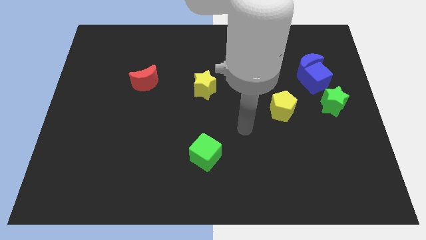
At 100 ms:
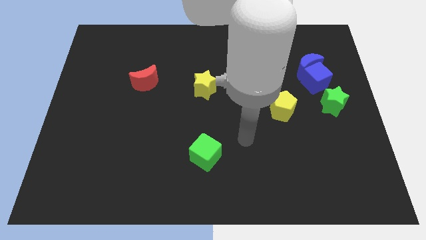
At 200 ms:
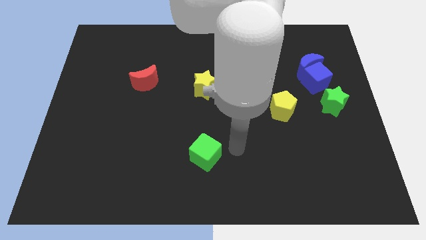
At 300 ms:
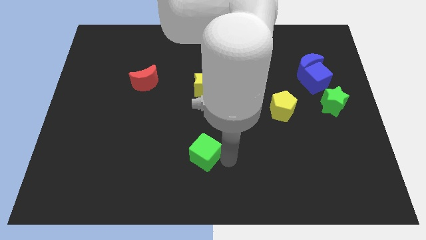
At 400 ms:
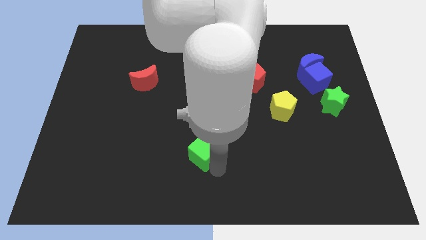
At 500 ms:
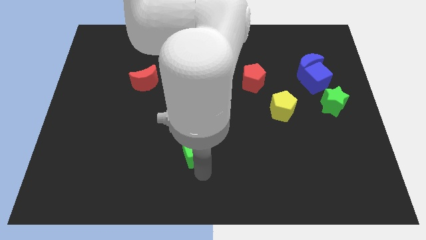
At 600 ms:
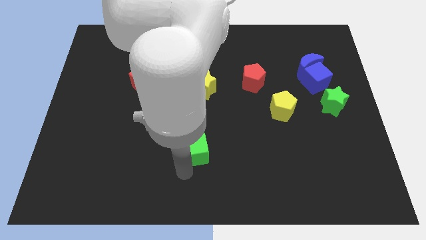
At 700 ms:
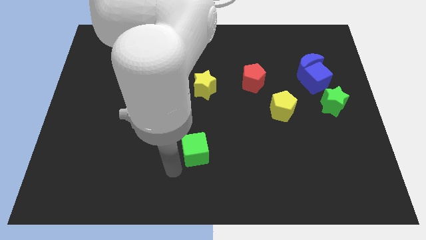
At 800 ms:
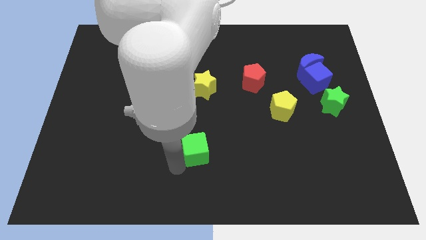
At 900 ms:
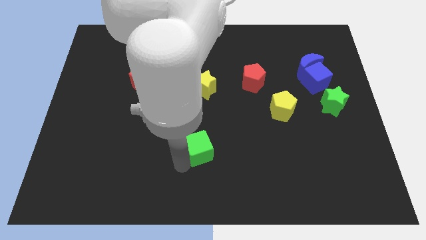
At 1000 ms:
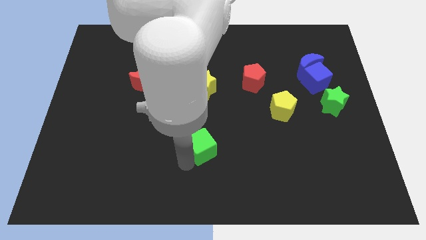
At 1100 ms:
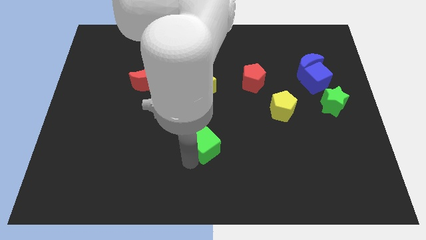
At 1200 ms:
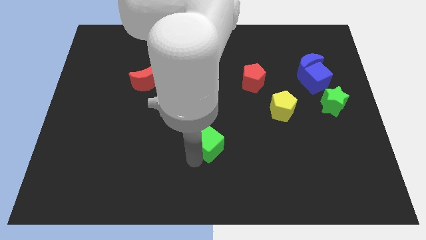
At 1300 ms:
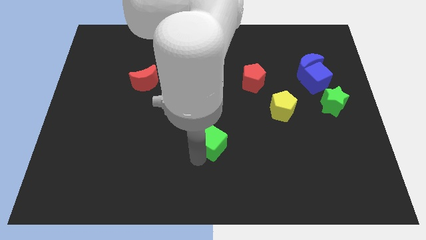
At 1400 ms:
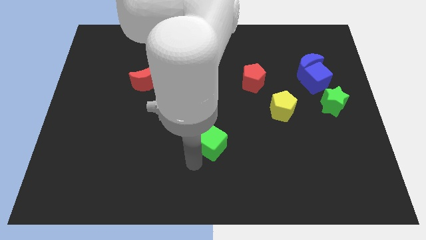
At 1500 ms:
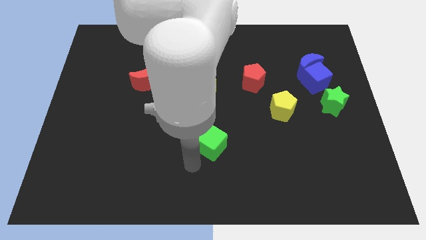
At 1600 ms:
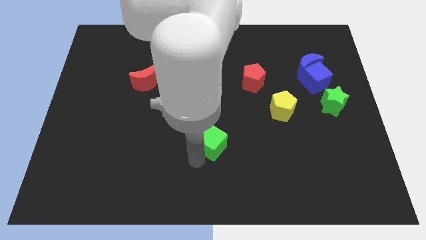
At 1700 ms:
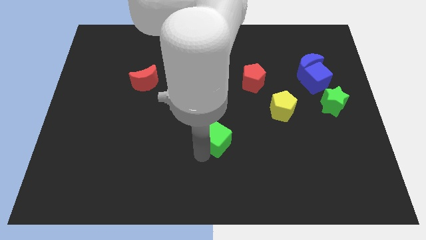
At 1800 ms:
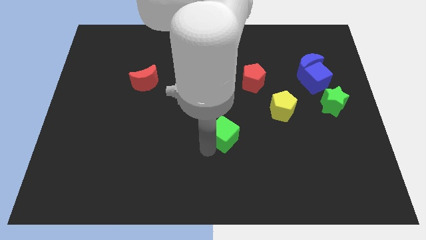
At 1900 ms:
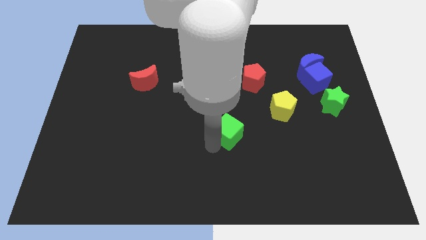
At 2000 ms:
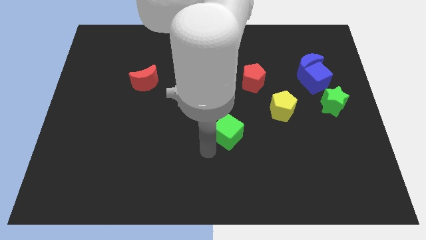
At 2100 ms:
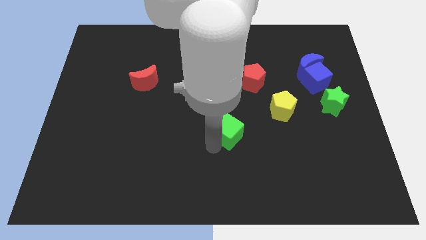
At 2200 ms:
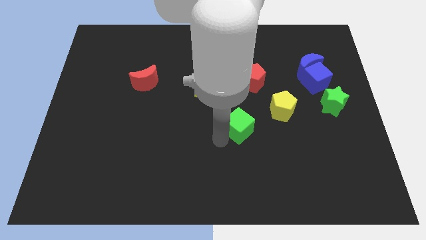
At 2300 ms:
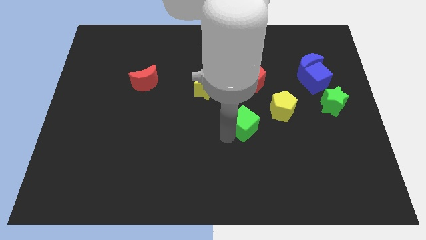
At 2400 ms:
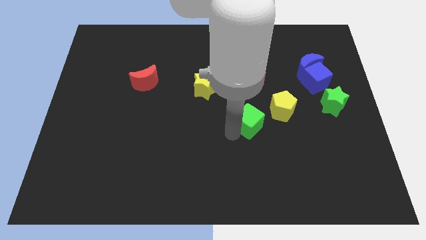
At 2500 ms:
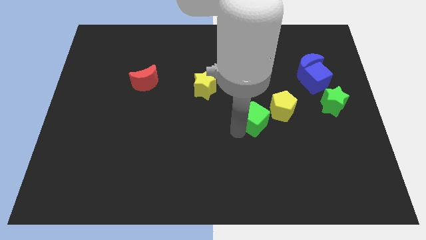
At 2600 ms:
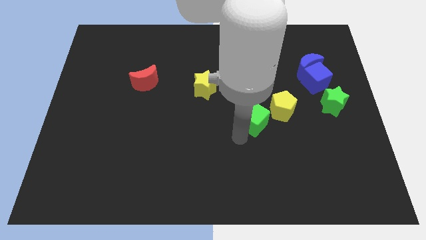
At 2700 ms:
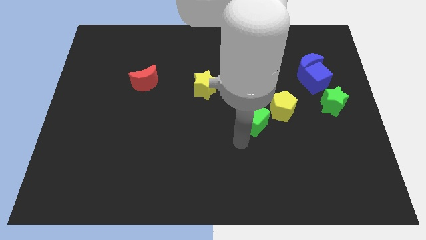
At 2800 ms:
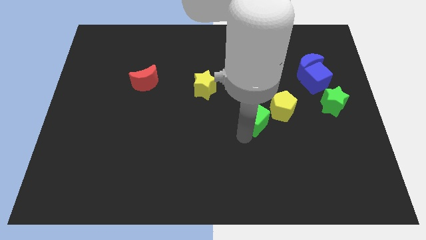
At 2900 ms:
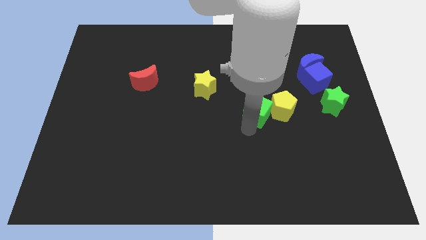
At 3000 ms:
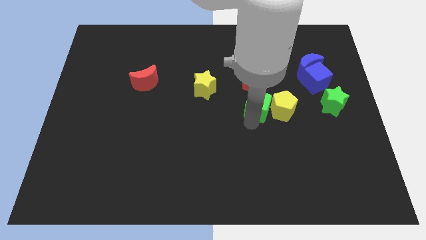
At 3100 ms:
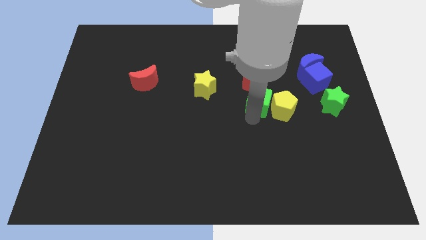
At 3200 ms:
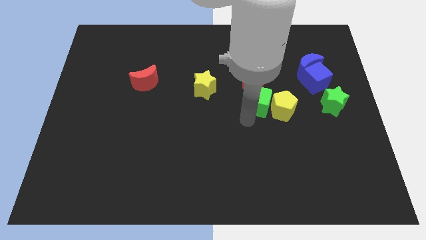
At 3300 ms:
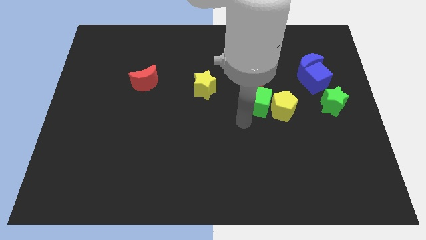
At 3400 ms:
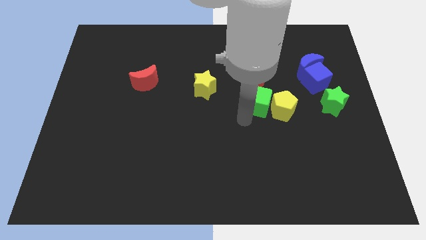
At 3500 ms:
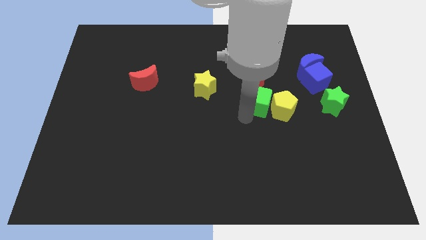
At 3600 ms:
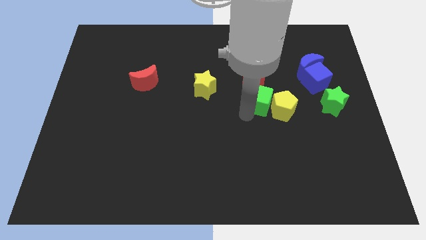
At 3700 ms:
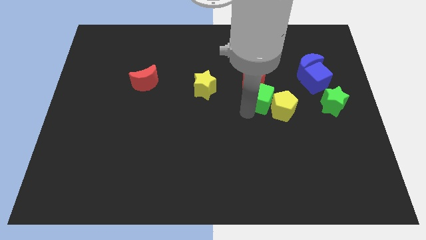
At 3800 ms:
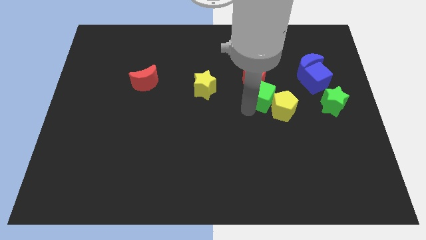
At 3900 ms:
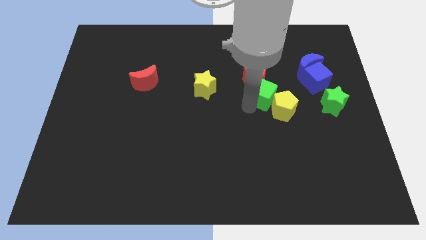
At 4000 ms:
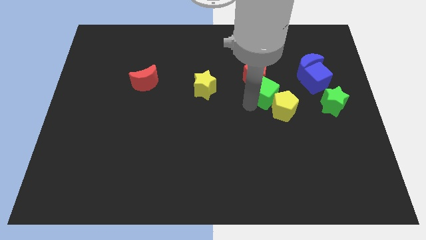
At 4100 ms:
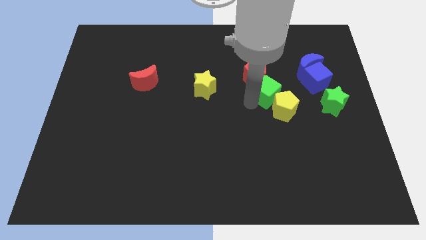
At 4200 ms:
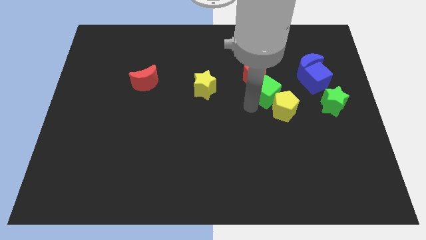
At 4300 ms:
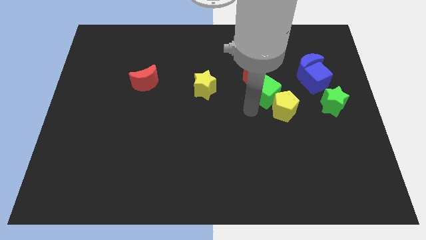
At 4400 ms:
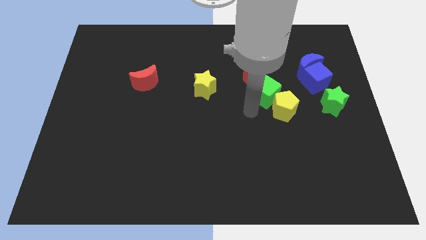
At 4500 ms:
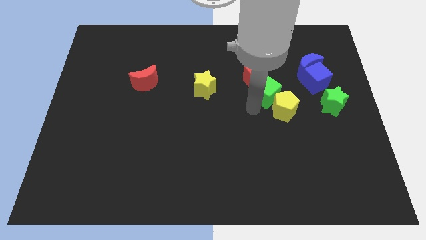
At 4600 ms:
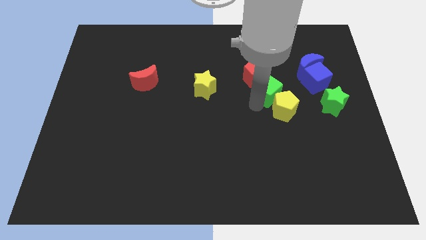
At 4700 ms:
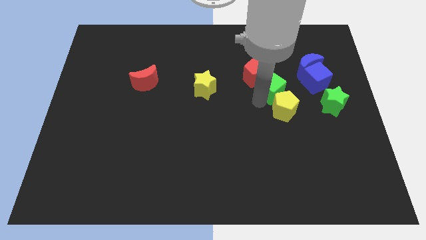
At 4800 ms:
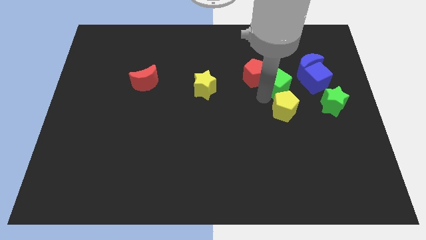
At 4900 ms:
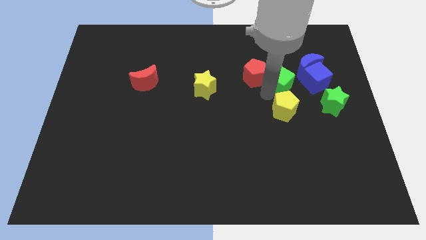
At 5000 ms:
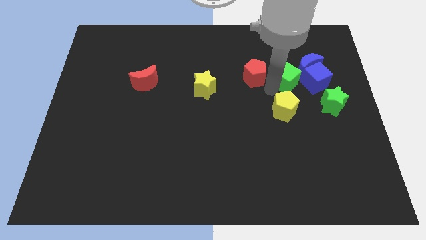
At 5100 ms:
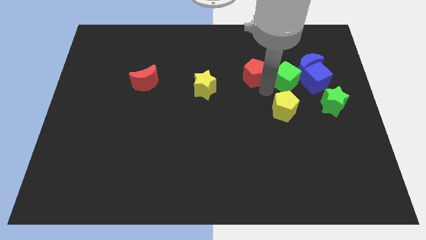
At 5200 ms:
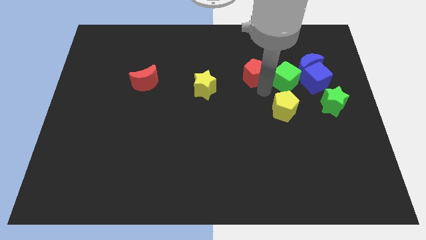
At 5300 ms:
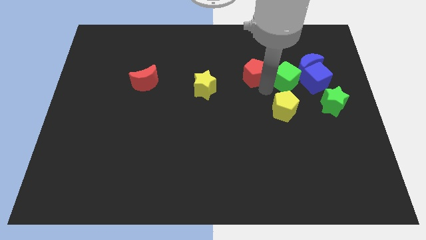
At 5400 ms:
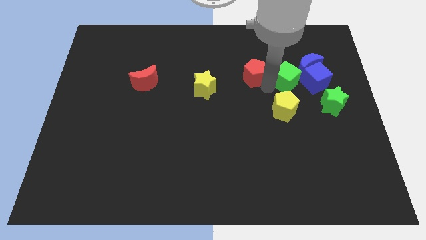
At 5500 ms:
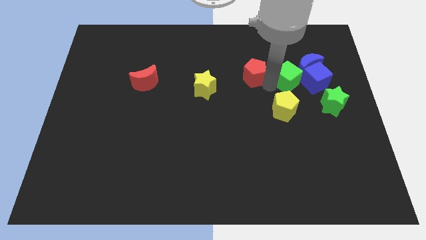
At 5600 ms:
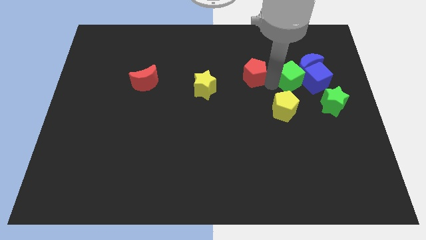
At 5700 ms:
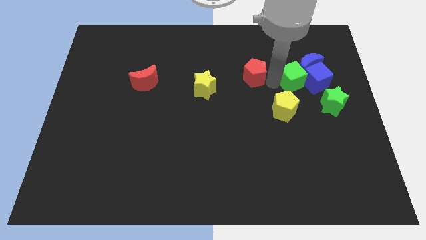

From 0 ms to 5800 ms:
put the green cube close to the blue moon

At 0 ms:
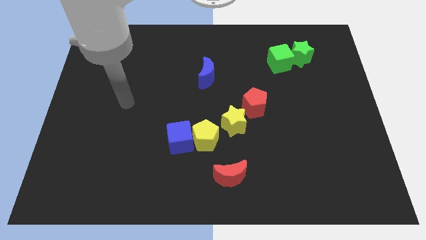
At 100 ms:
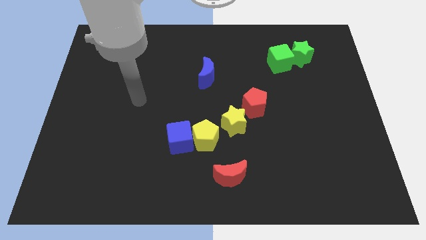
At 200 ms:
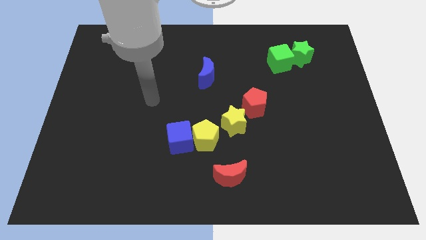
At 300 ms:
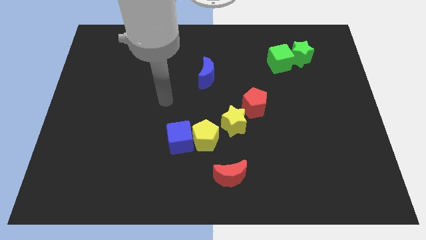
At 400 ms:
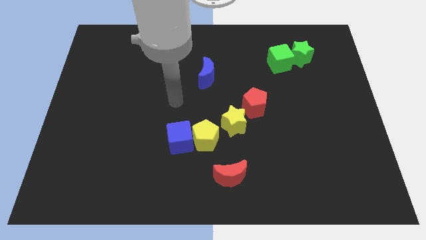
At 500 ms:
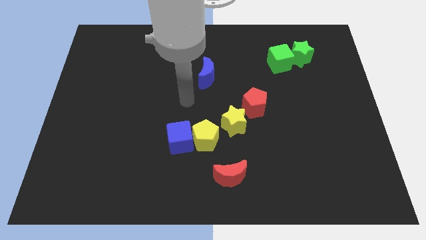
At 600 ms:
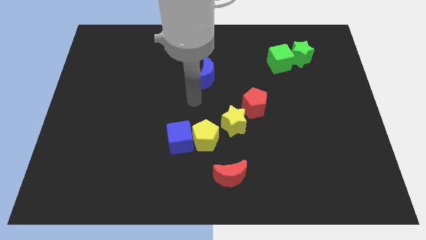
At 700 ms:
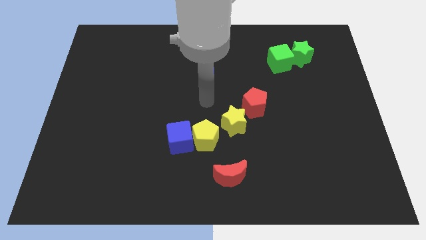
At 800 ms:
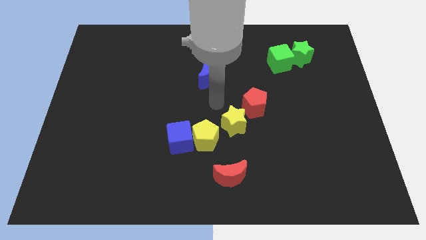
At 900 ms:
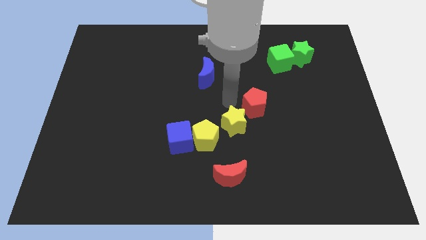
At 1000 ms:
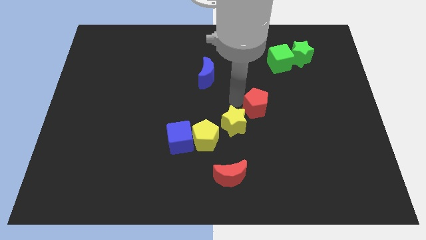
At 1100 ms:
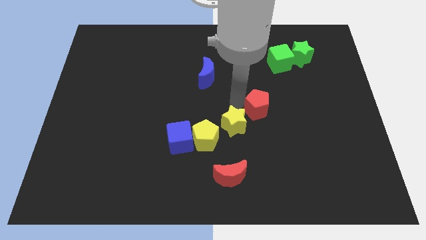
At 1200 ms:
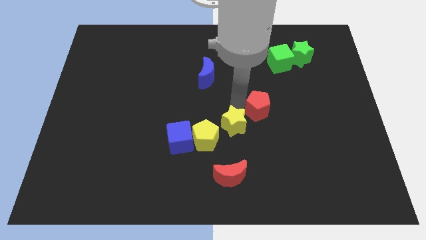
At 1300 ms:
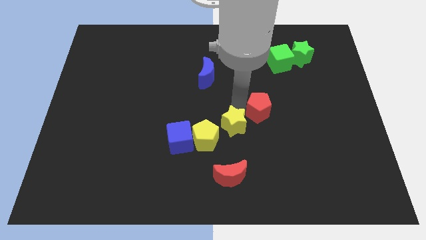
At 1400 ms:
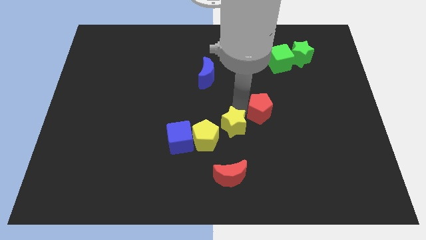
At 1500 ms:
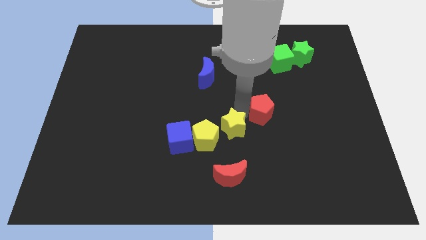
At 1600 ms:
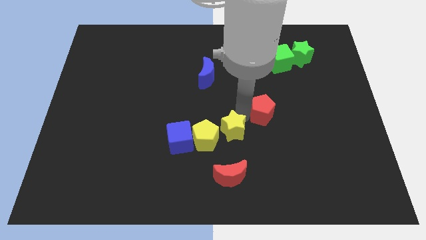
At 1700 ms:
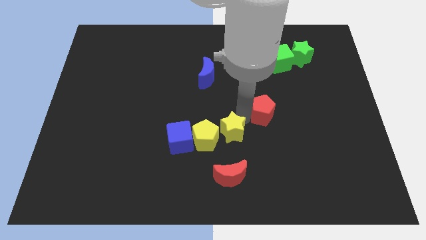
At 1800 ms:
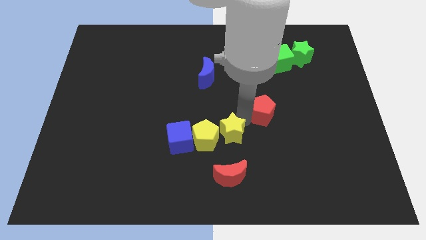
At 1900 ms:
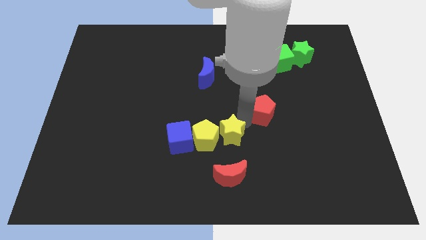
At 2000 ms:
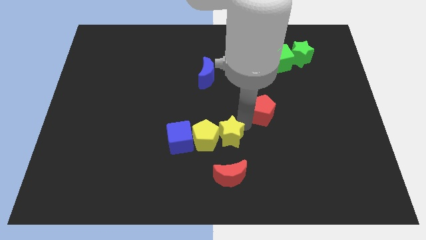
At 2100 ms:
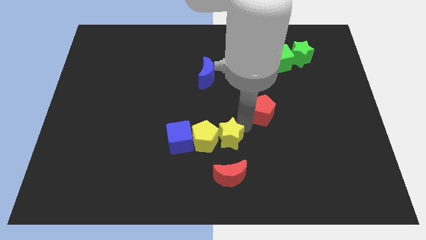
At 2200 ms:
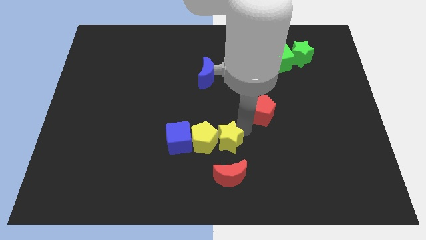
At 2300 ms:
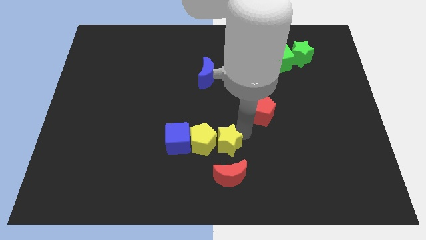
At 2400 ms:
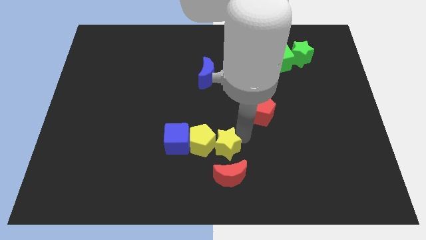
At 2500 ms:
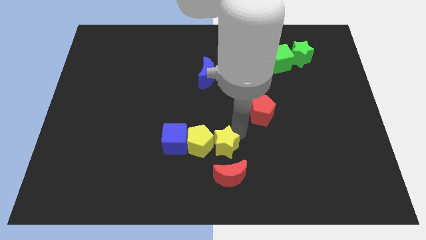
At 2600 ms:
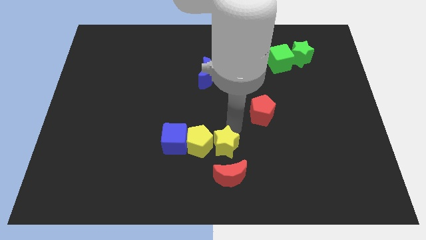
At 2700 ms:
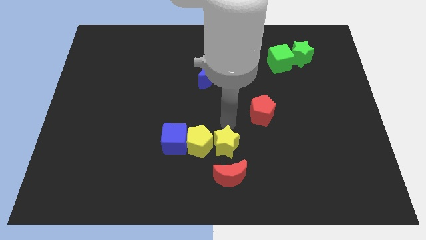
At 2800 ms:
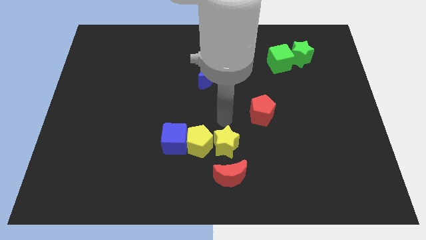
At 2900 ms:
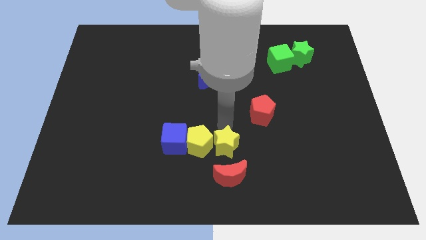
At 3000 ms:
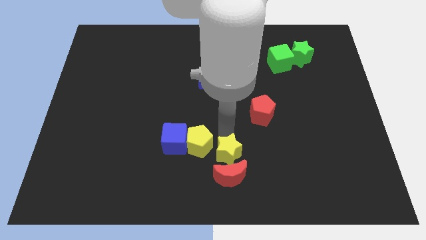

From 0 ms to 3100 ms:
push the yellow star close to the red moon
